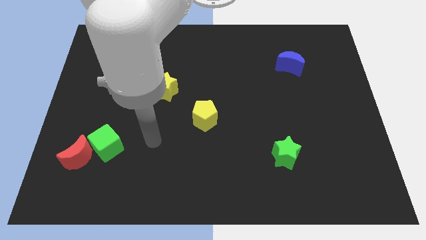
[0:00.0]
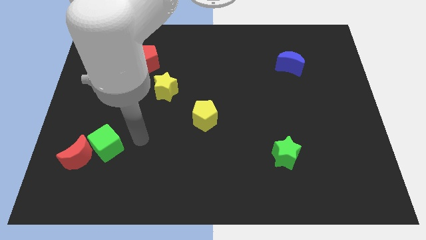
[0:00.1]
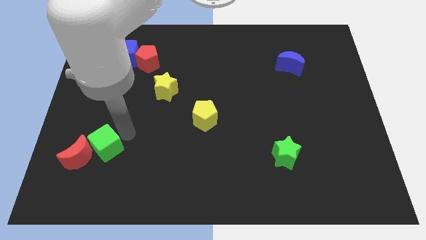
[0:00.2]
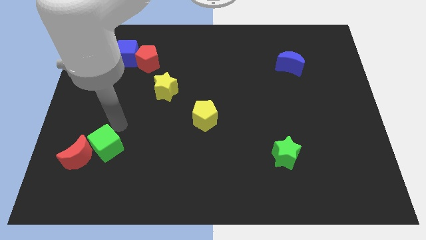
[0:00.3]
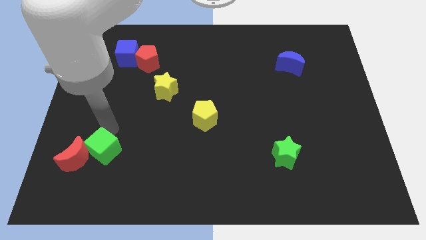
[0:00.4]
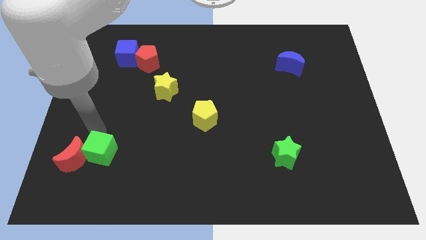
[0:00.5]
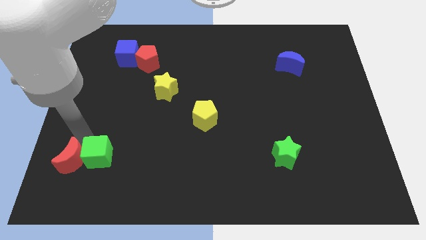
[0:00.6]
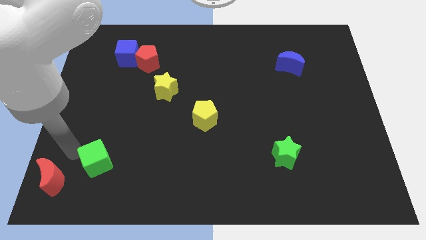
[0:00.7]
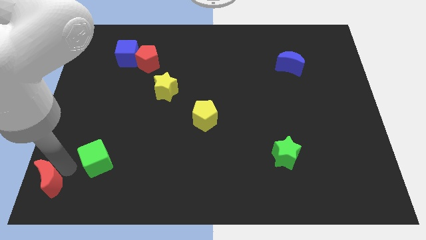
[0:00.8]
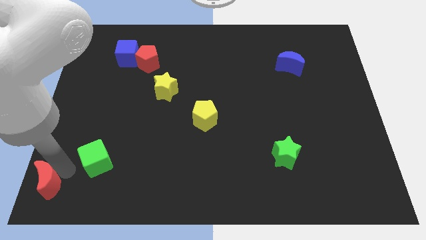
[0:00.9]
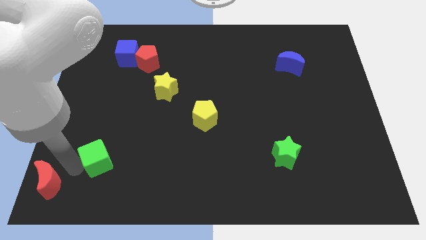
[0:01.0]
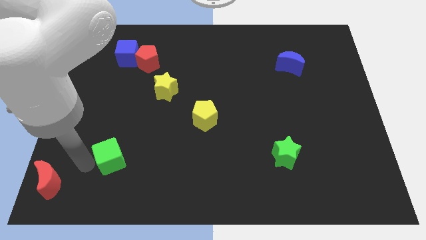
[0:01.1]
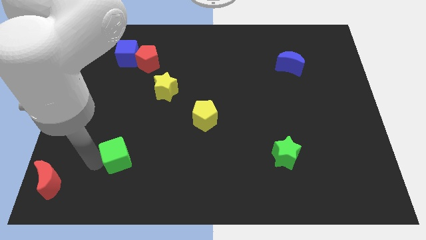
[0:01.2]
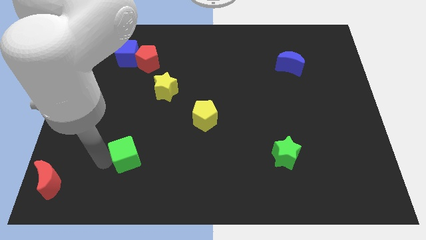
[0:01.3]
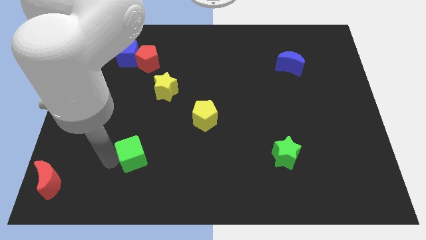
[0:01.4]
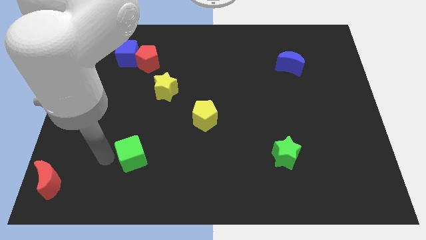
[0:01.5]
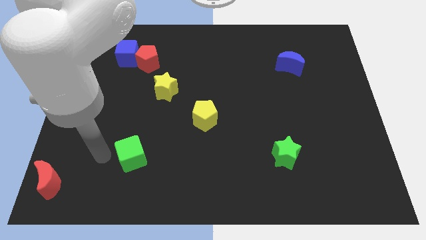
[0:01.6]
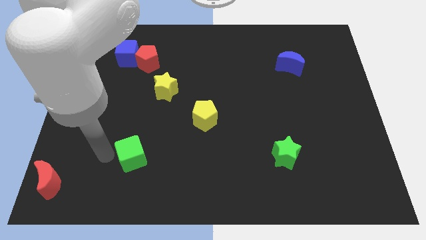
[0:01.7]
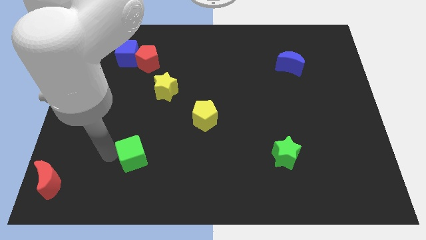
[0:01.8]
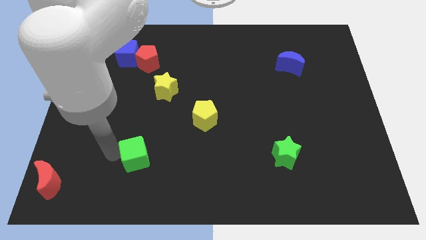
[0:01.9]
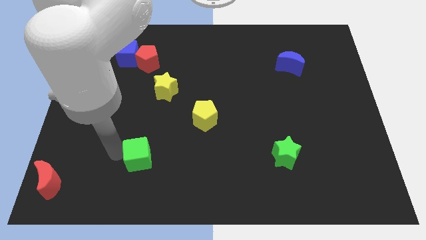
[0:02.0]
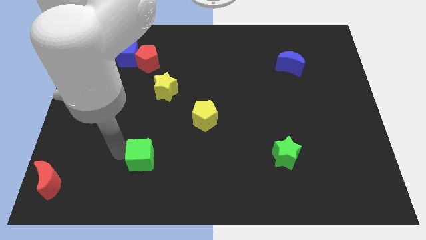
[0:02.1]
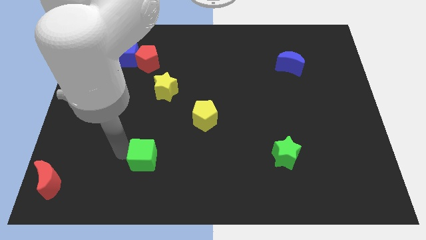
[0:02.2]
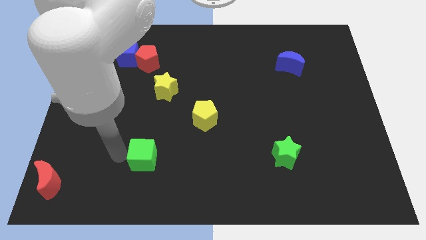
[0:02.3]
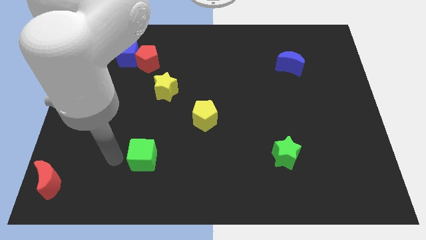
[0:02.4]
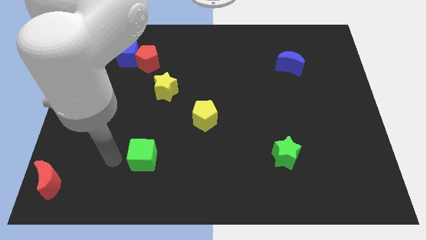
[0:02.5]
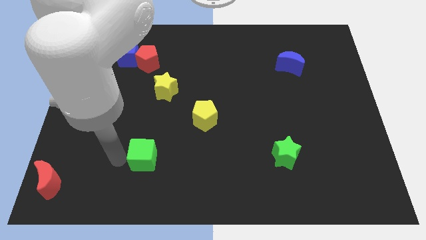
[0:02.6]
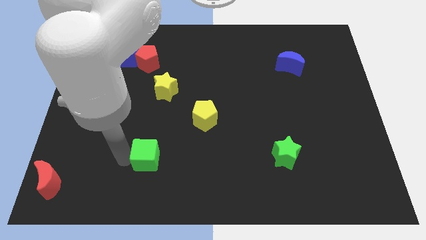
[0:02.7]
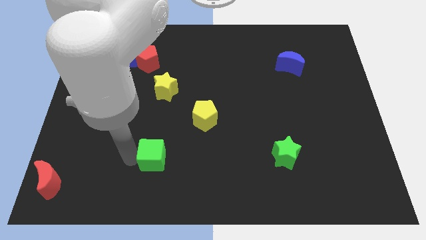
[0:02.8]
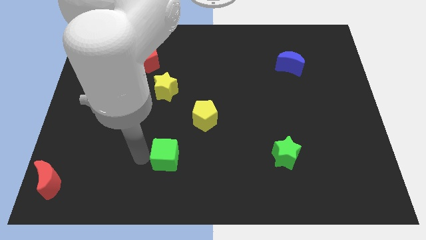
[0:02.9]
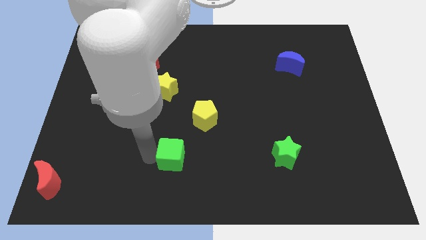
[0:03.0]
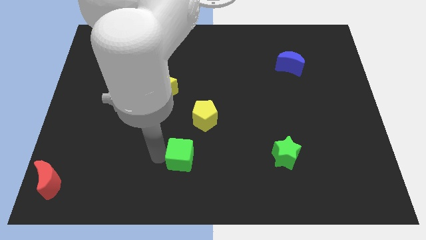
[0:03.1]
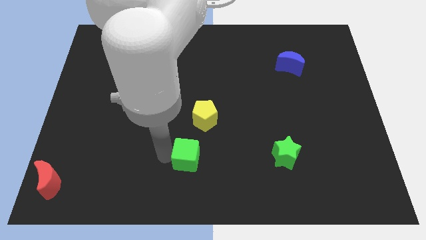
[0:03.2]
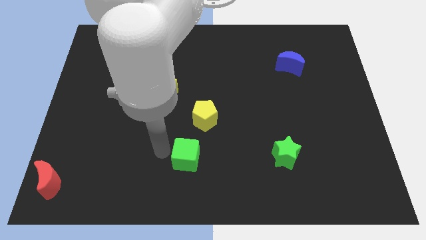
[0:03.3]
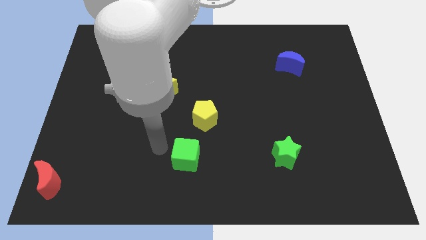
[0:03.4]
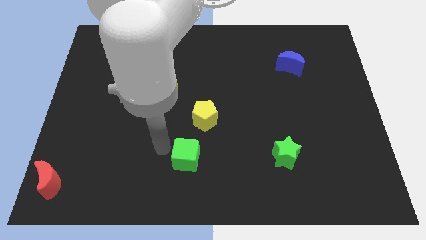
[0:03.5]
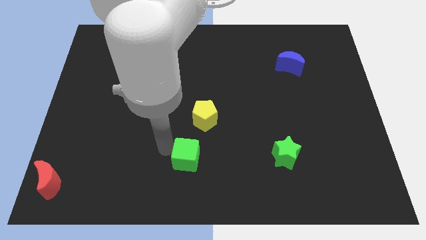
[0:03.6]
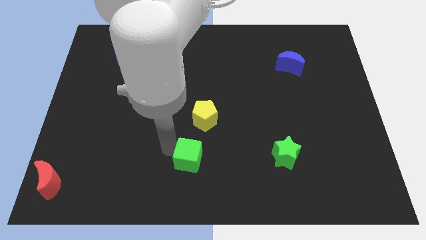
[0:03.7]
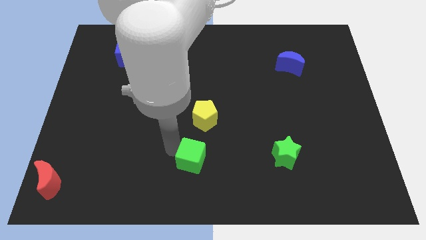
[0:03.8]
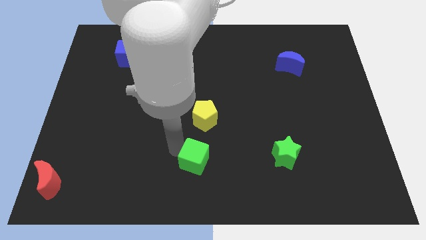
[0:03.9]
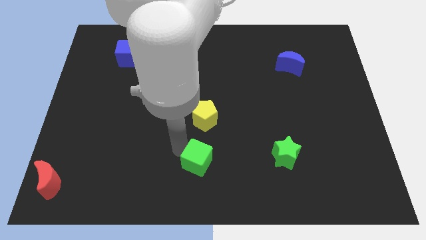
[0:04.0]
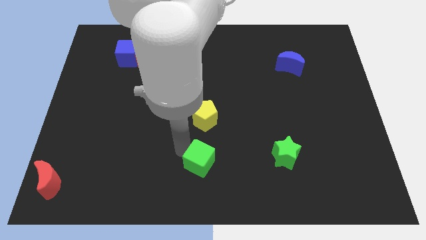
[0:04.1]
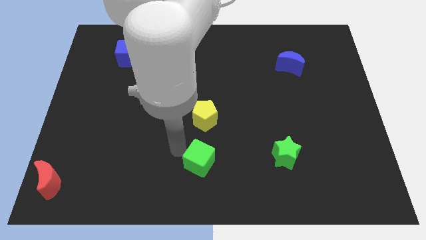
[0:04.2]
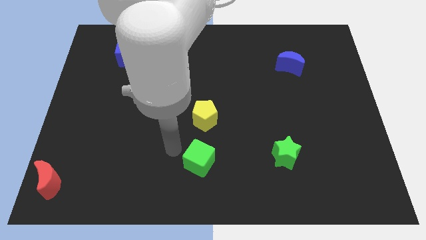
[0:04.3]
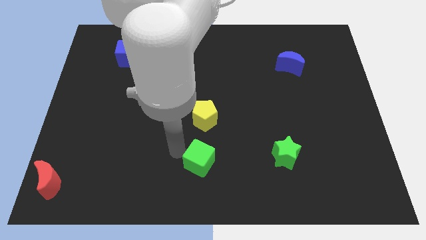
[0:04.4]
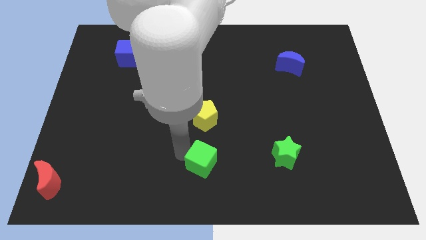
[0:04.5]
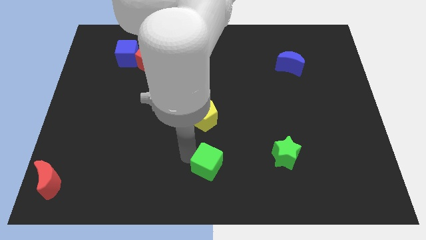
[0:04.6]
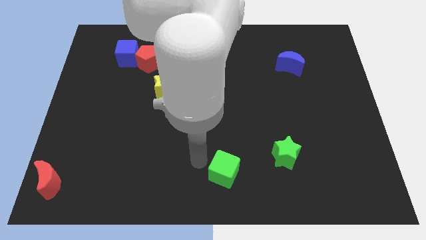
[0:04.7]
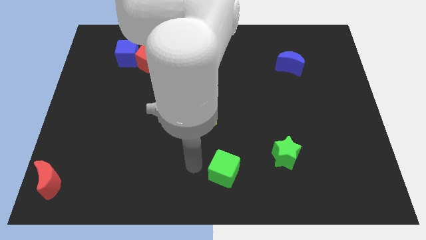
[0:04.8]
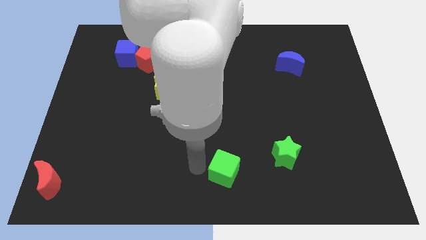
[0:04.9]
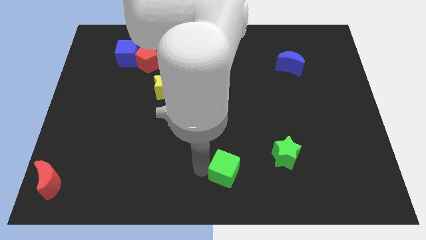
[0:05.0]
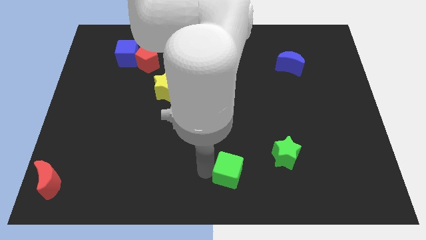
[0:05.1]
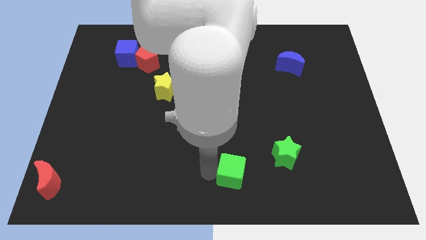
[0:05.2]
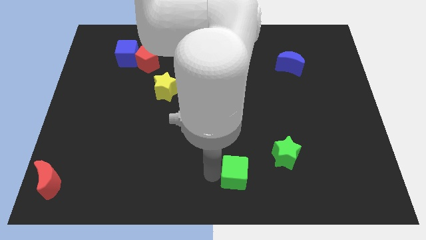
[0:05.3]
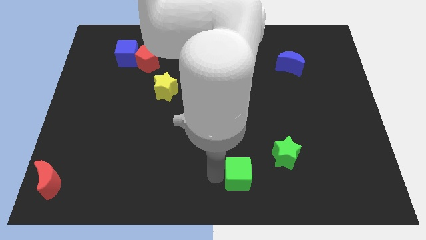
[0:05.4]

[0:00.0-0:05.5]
slide the green cube to the bottom left side of the green star

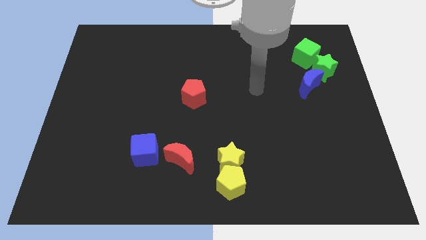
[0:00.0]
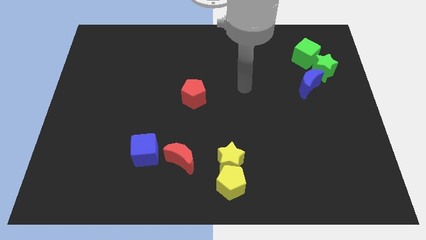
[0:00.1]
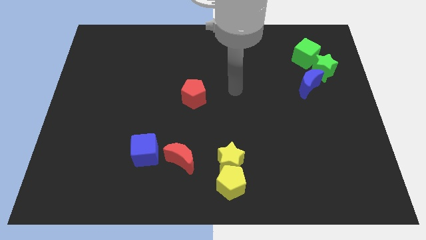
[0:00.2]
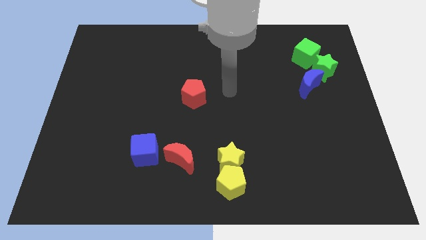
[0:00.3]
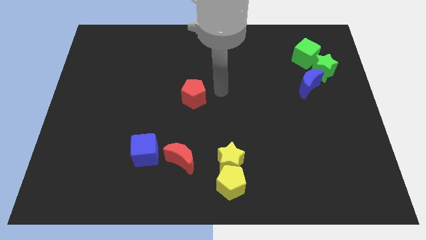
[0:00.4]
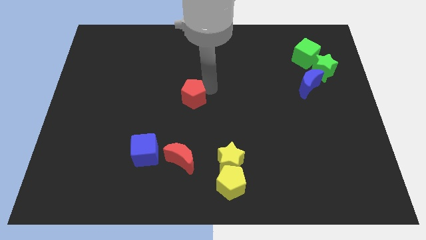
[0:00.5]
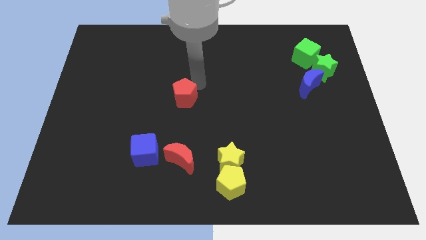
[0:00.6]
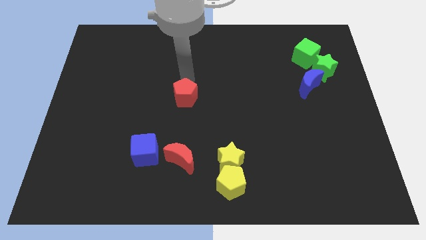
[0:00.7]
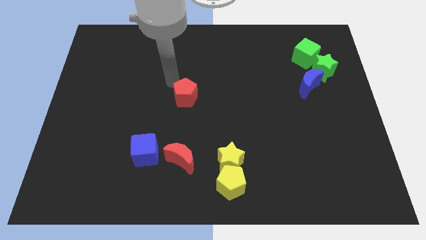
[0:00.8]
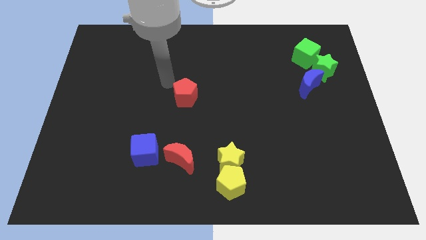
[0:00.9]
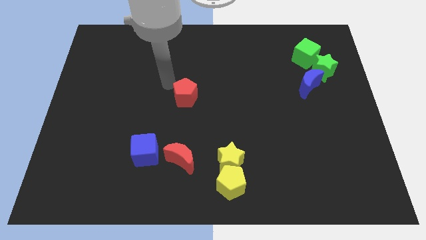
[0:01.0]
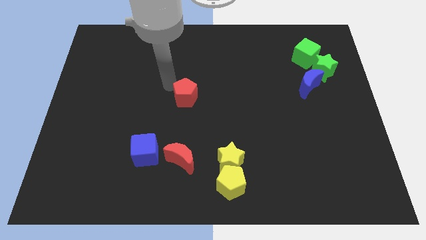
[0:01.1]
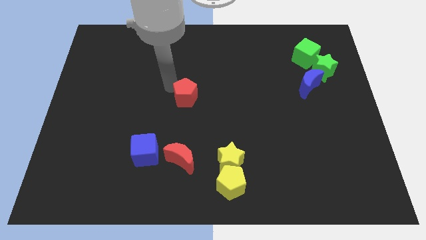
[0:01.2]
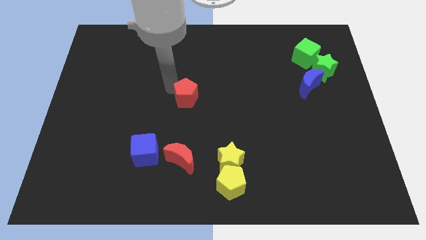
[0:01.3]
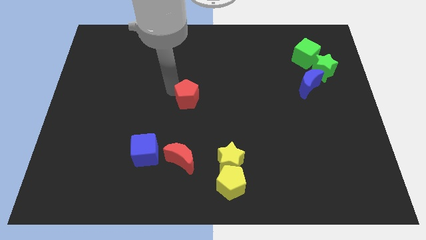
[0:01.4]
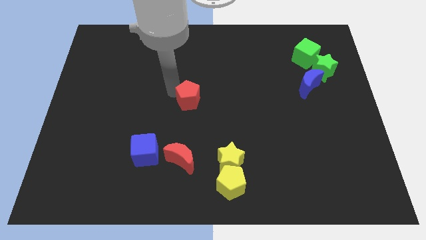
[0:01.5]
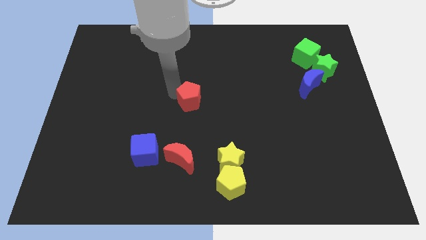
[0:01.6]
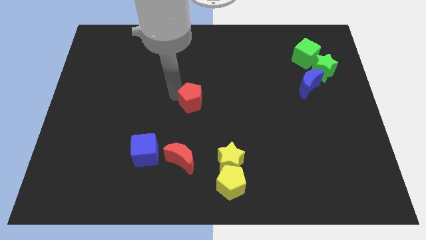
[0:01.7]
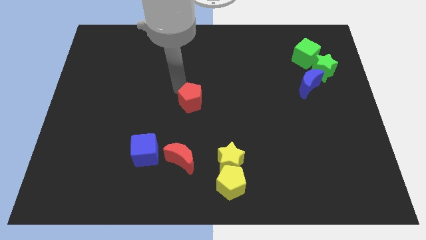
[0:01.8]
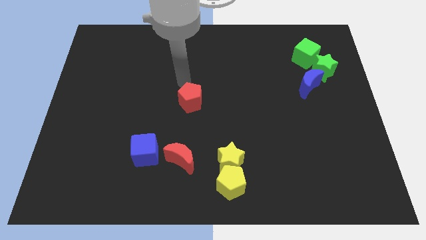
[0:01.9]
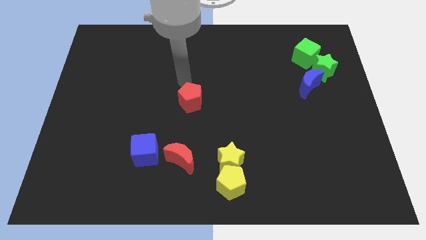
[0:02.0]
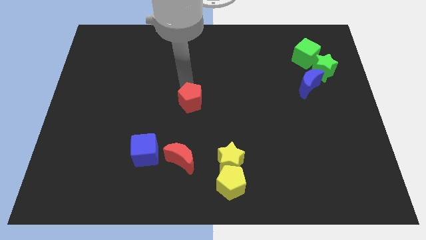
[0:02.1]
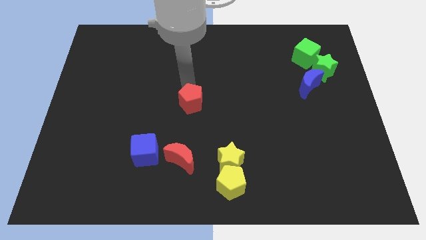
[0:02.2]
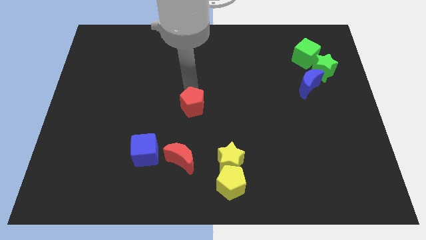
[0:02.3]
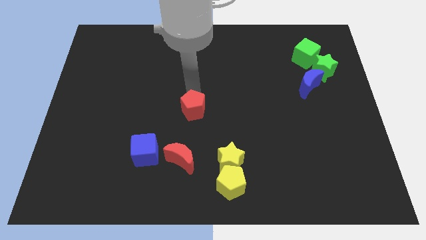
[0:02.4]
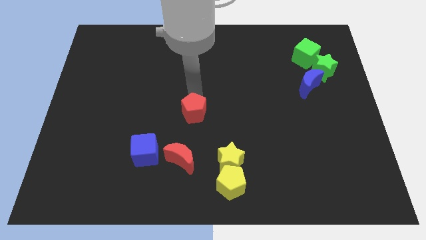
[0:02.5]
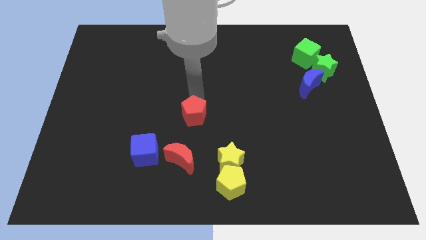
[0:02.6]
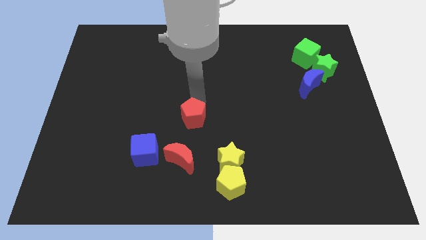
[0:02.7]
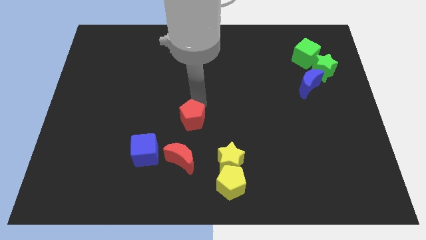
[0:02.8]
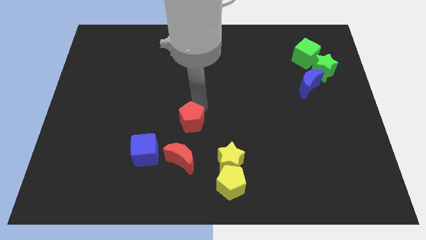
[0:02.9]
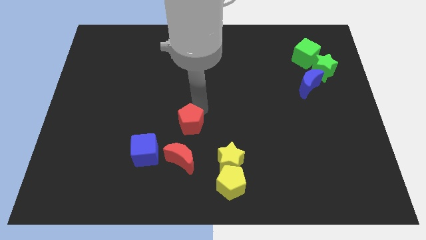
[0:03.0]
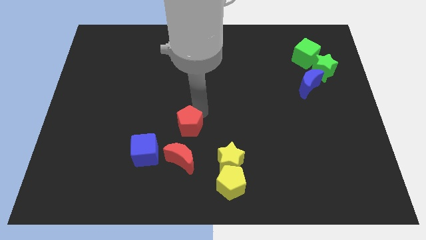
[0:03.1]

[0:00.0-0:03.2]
move the red pentagon to the top left of the yellow star
